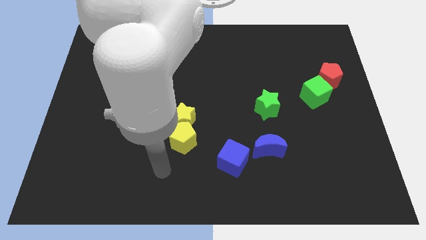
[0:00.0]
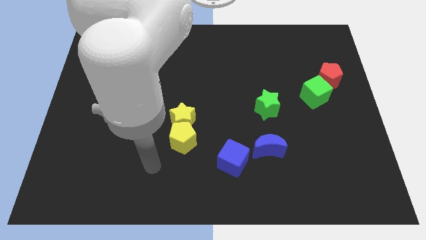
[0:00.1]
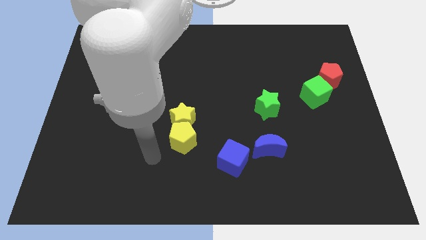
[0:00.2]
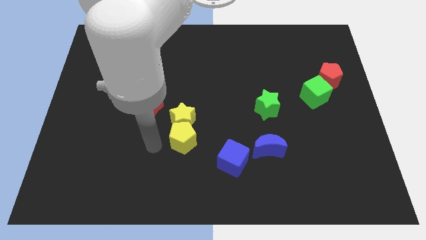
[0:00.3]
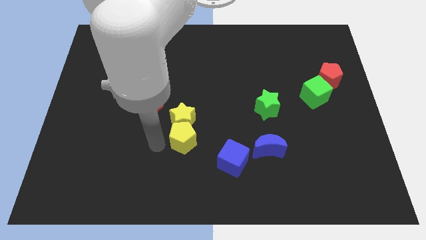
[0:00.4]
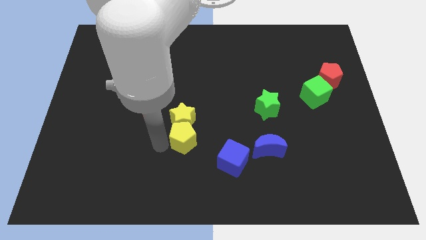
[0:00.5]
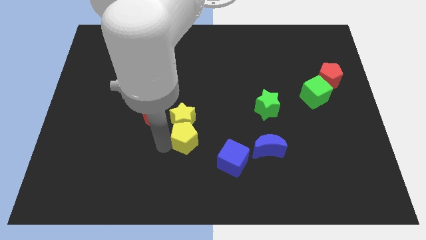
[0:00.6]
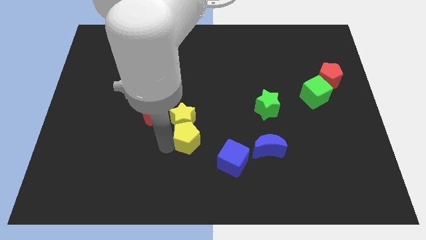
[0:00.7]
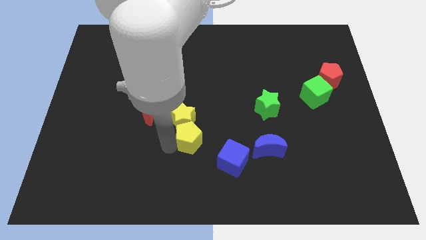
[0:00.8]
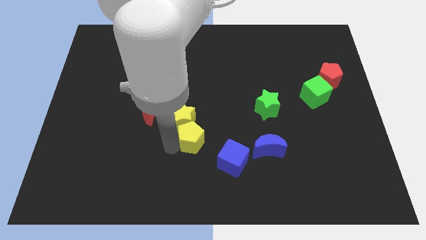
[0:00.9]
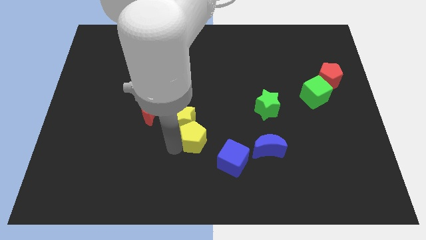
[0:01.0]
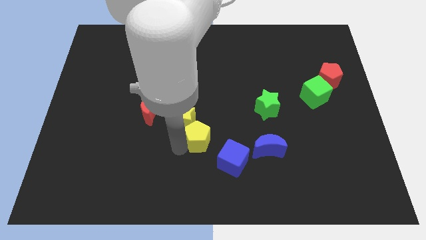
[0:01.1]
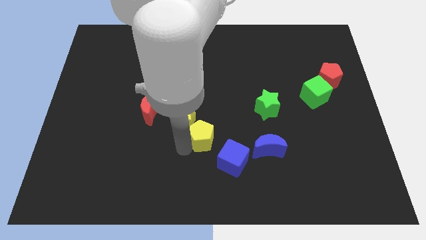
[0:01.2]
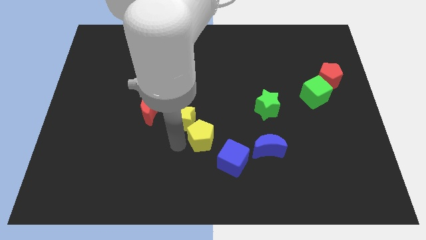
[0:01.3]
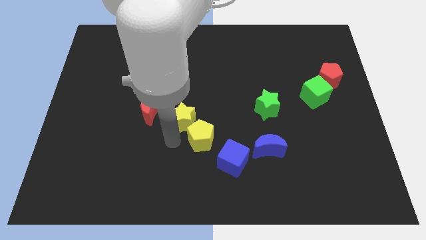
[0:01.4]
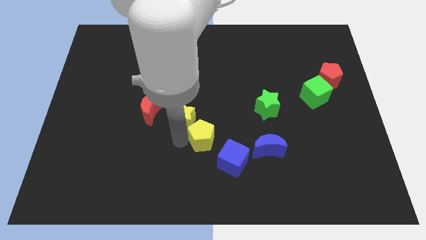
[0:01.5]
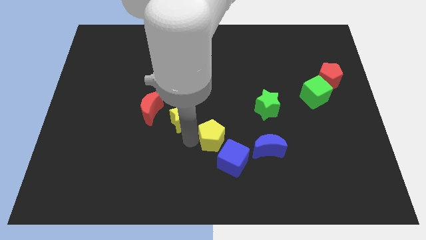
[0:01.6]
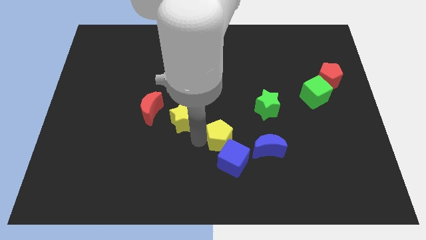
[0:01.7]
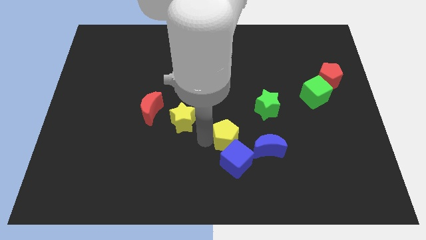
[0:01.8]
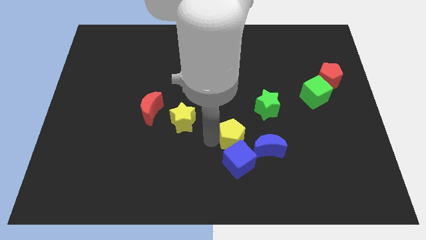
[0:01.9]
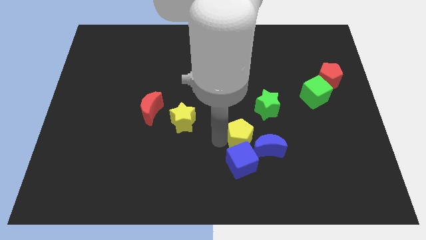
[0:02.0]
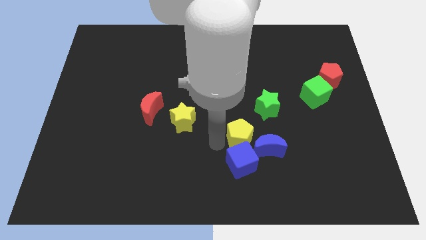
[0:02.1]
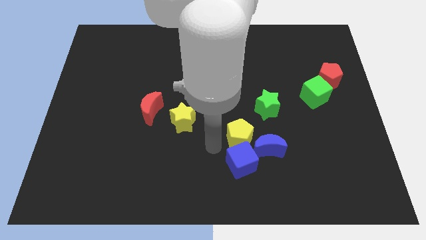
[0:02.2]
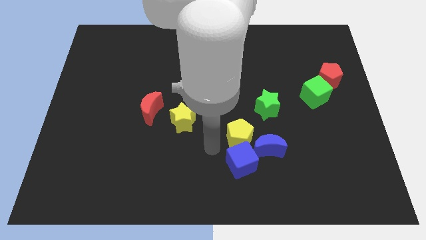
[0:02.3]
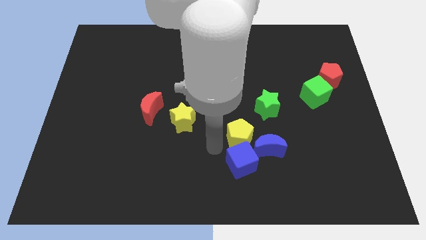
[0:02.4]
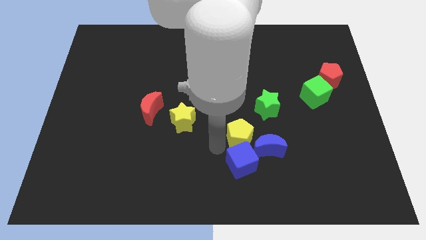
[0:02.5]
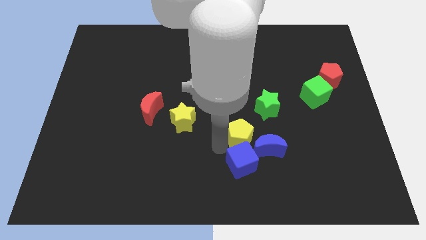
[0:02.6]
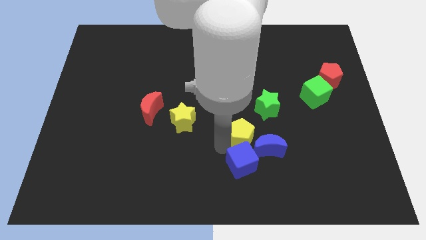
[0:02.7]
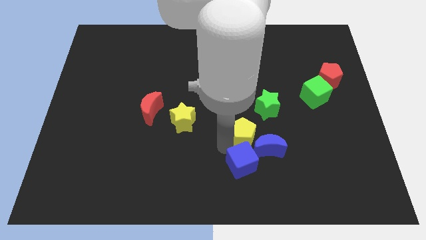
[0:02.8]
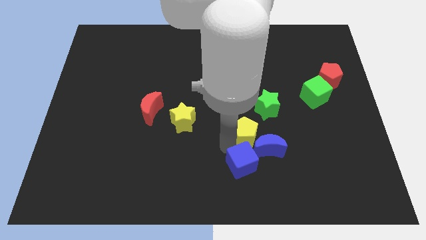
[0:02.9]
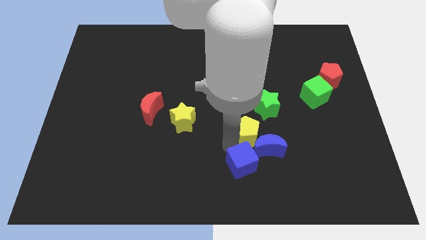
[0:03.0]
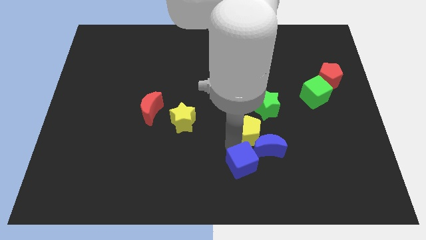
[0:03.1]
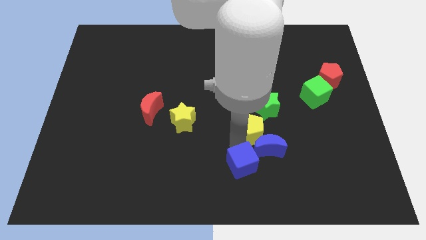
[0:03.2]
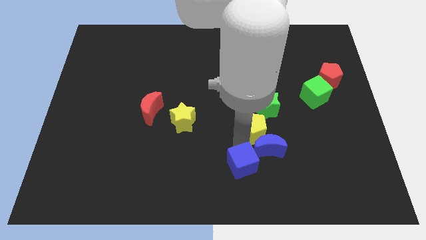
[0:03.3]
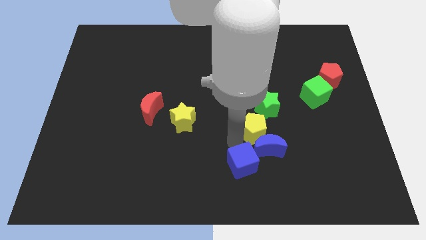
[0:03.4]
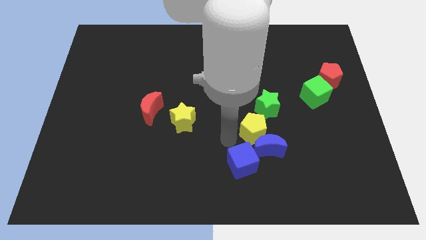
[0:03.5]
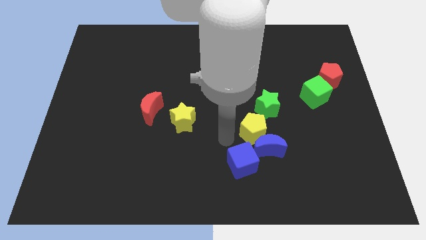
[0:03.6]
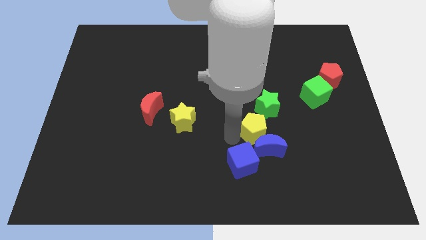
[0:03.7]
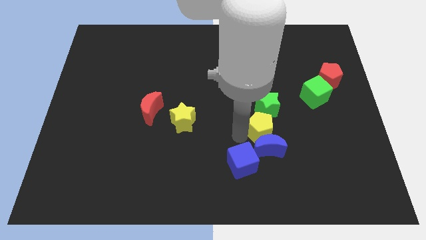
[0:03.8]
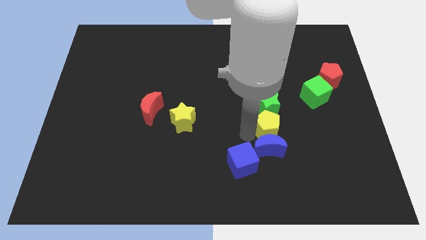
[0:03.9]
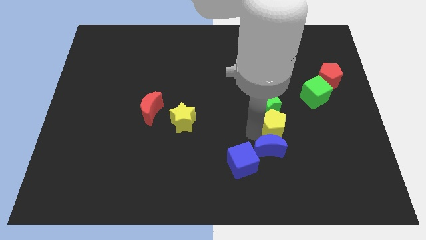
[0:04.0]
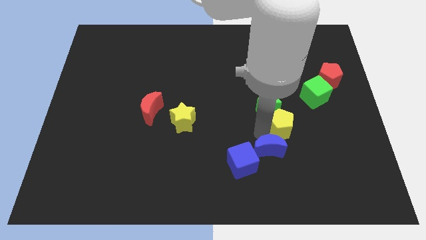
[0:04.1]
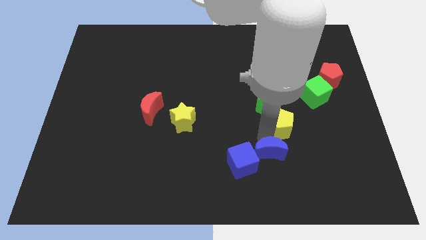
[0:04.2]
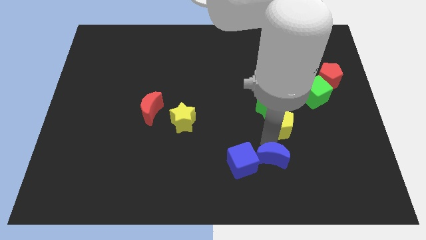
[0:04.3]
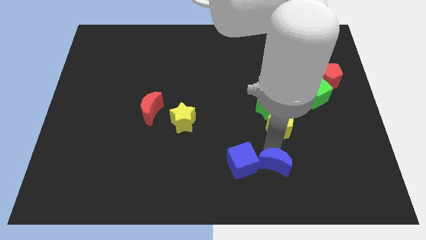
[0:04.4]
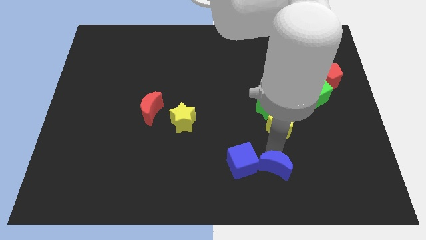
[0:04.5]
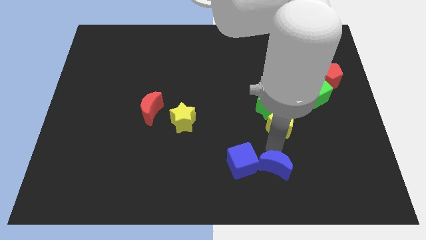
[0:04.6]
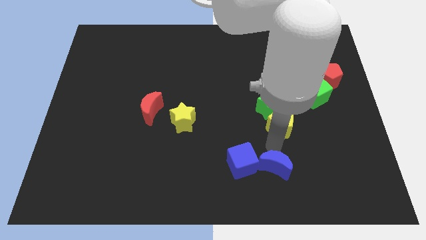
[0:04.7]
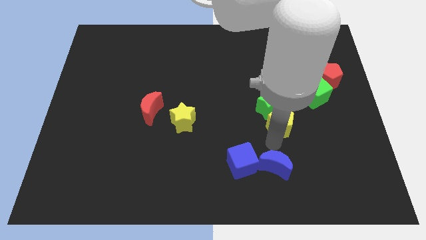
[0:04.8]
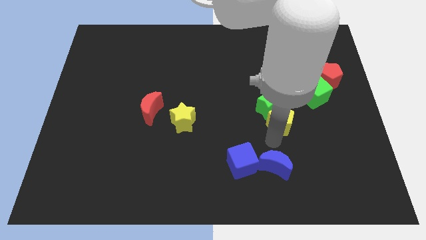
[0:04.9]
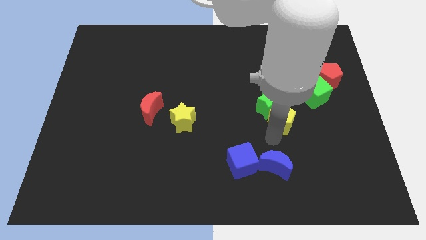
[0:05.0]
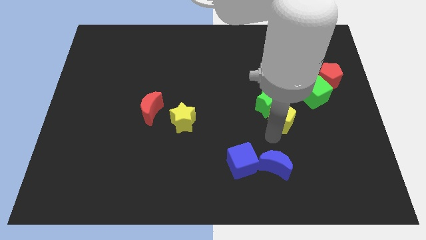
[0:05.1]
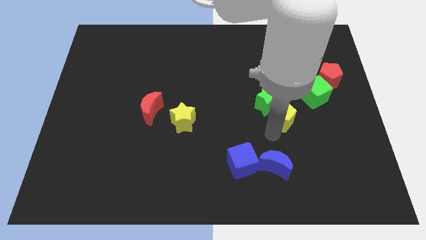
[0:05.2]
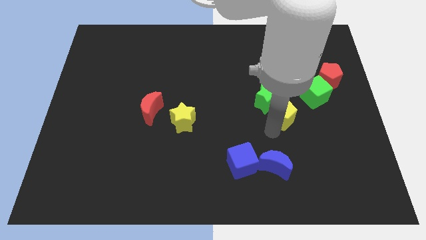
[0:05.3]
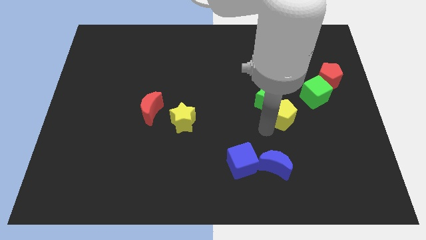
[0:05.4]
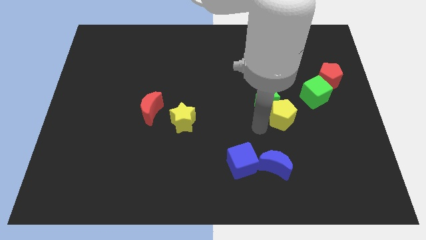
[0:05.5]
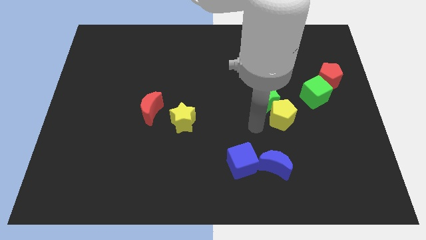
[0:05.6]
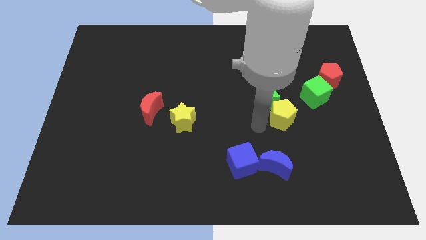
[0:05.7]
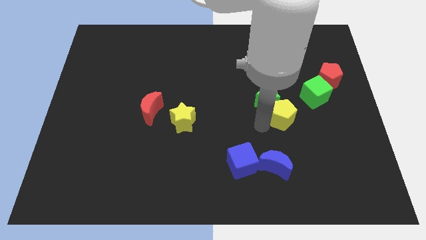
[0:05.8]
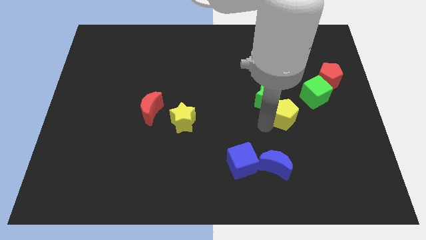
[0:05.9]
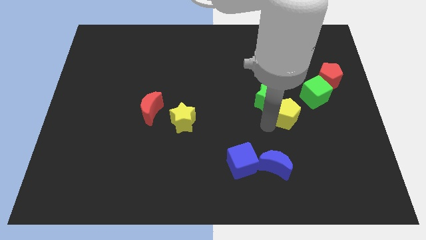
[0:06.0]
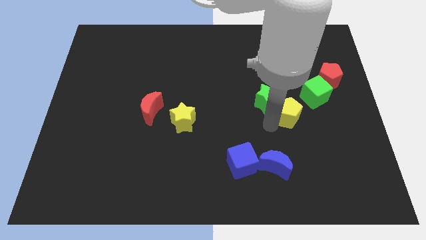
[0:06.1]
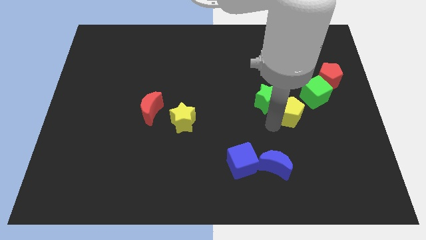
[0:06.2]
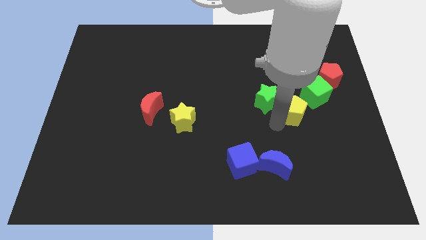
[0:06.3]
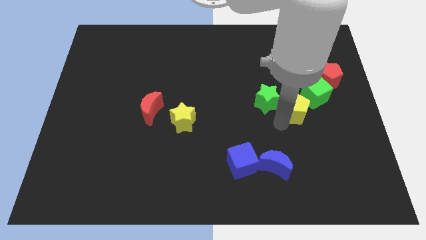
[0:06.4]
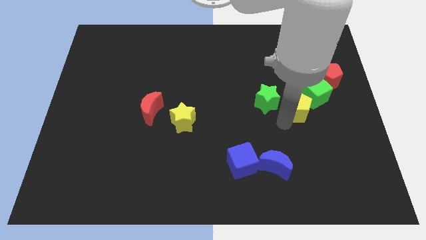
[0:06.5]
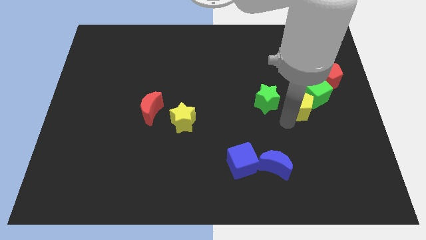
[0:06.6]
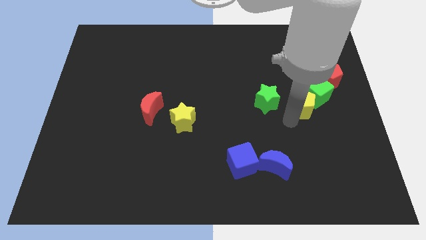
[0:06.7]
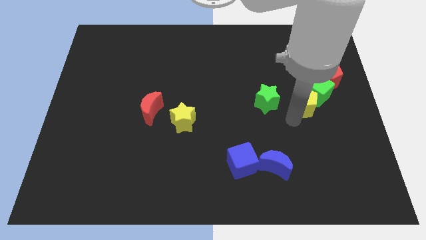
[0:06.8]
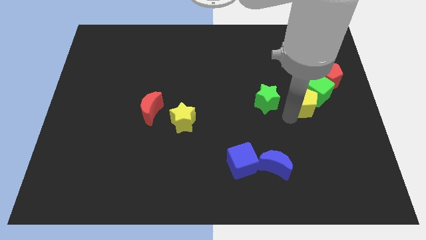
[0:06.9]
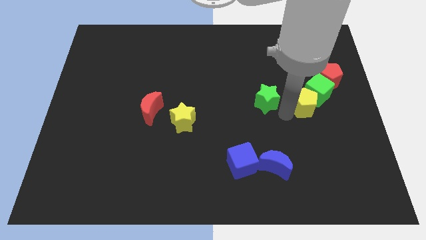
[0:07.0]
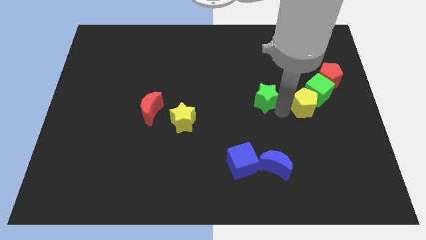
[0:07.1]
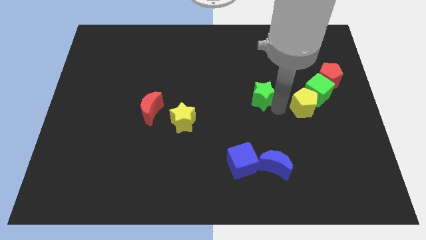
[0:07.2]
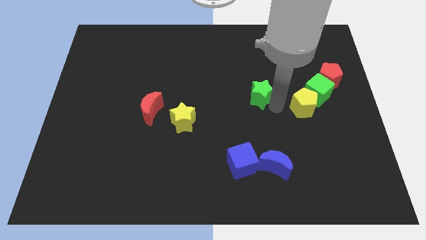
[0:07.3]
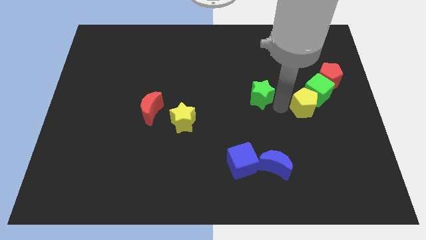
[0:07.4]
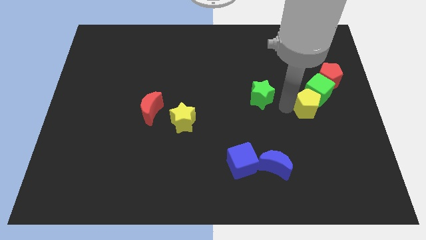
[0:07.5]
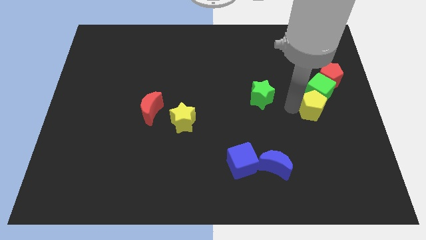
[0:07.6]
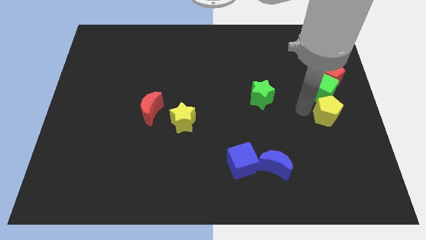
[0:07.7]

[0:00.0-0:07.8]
slide the yellow pentagon to the right side
